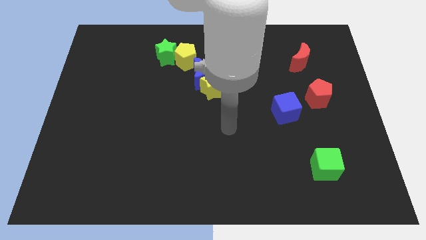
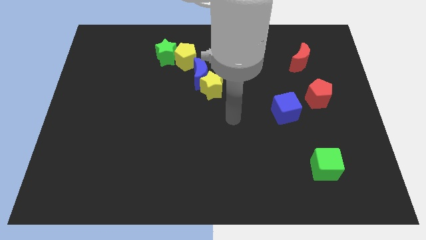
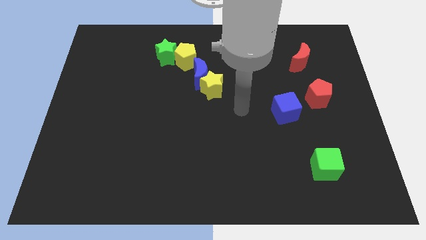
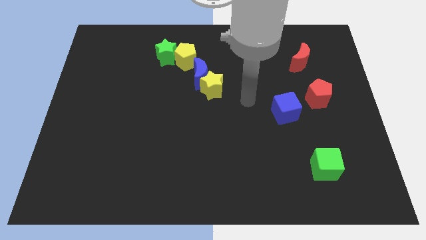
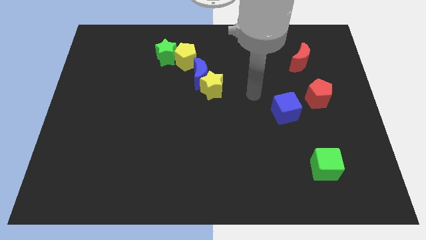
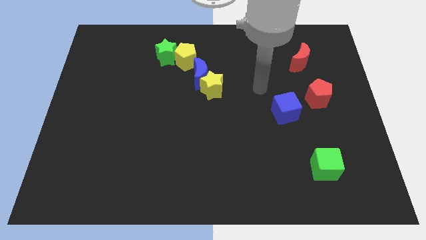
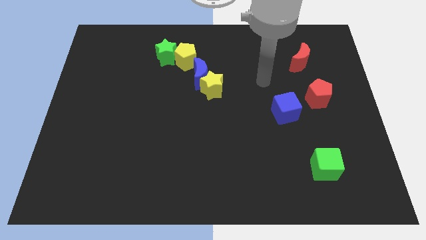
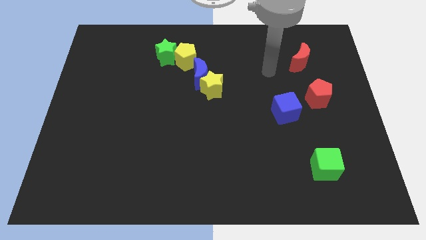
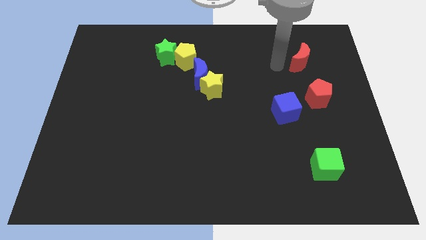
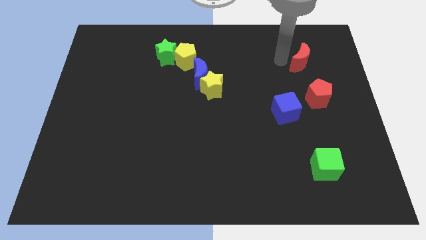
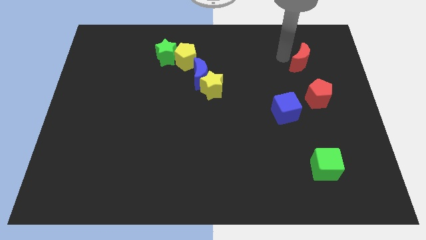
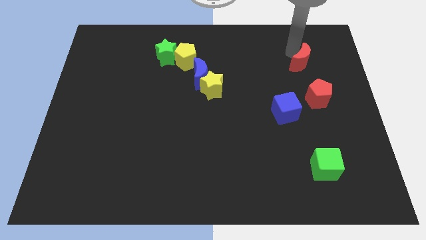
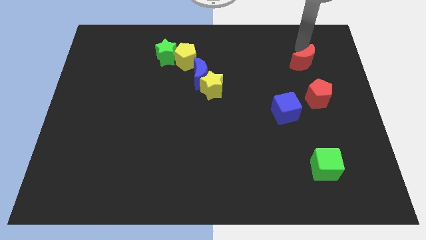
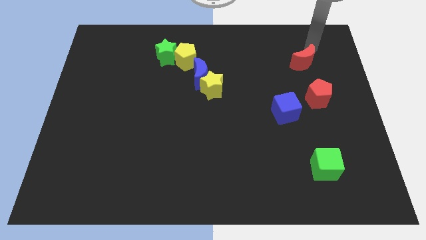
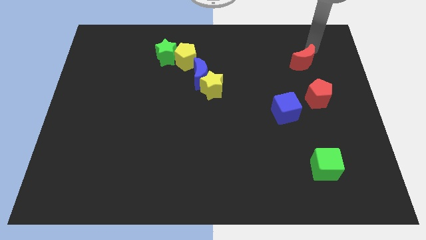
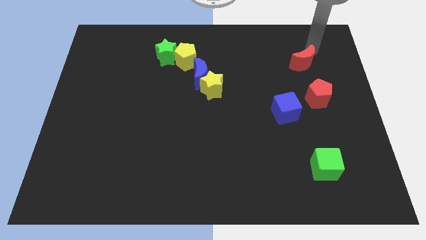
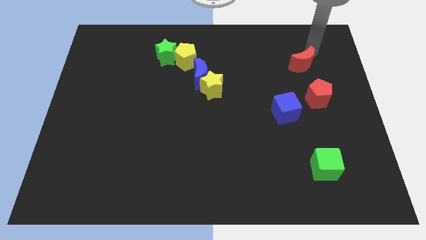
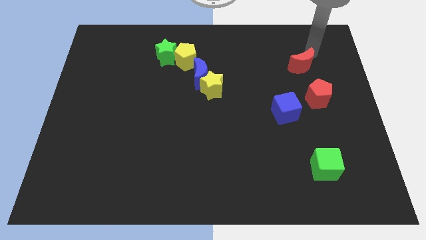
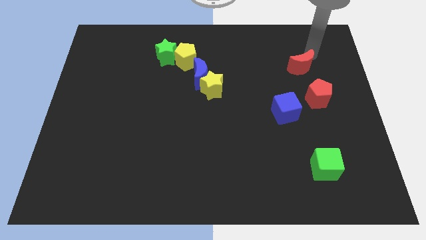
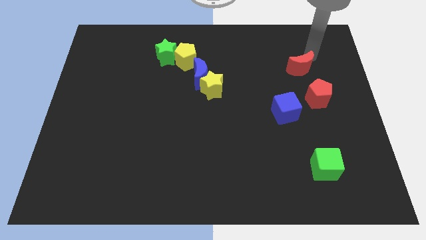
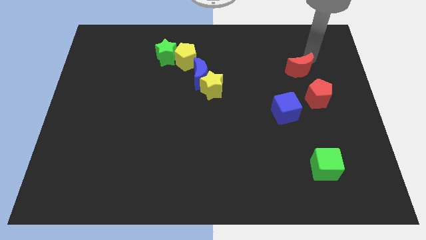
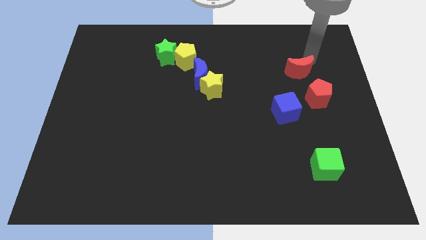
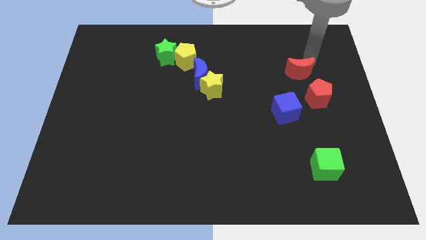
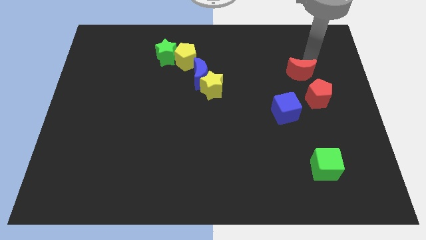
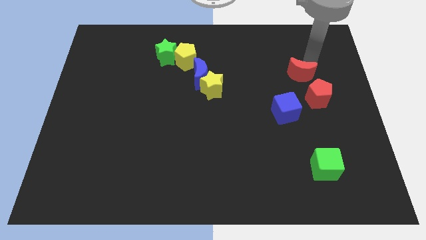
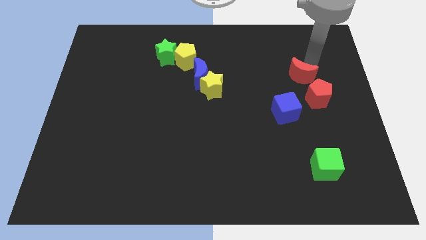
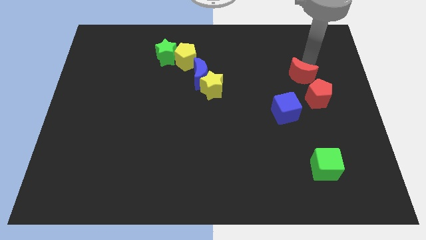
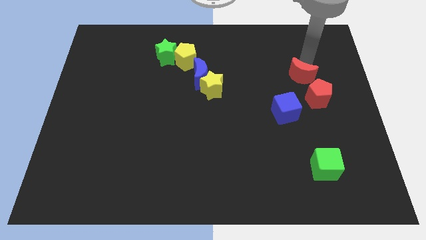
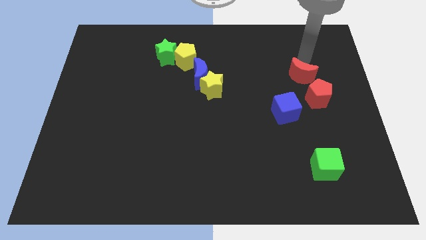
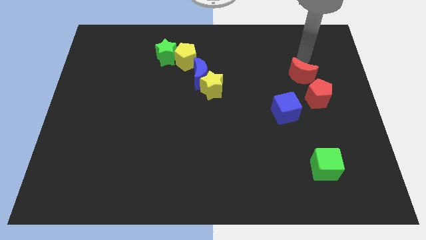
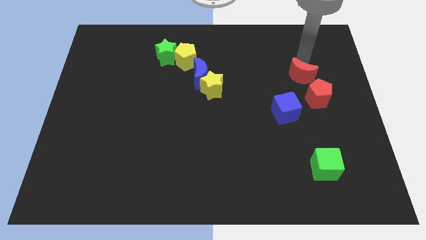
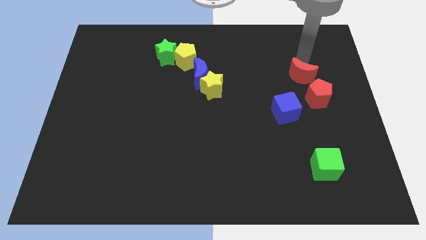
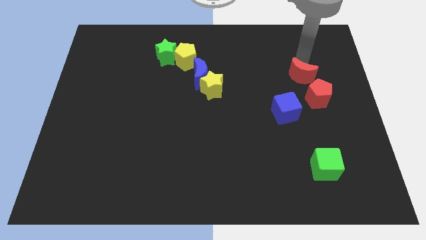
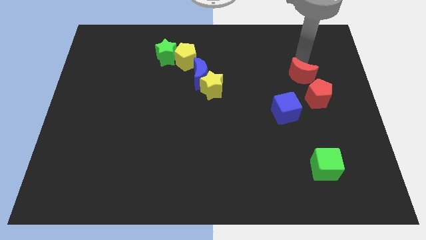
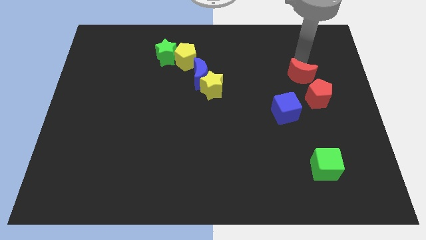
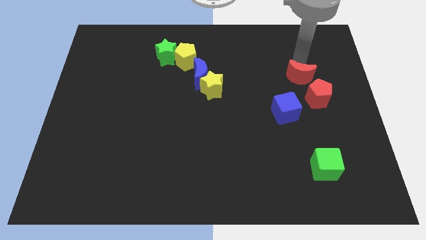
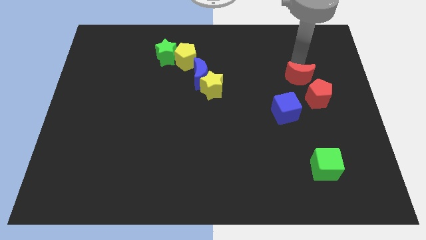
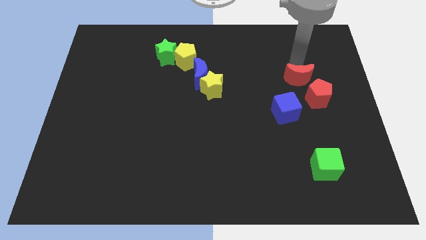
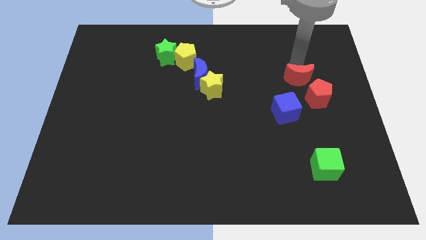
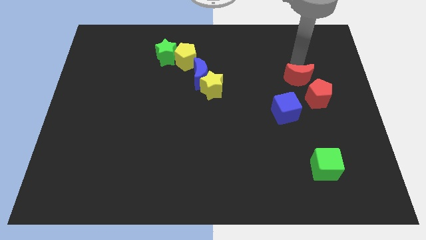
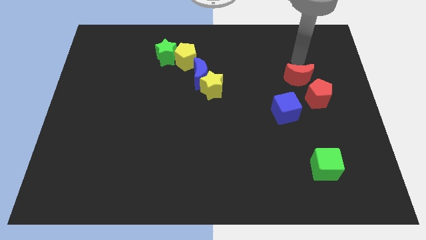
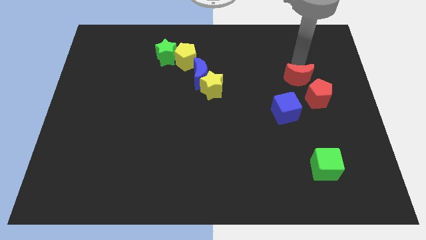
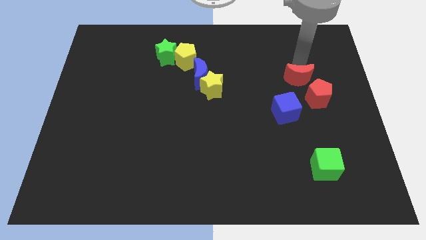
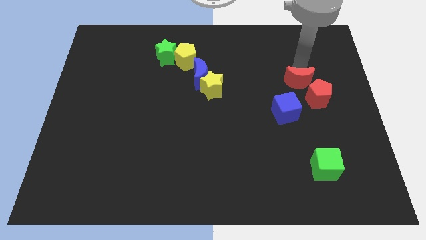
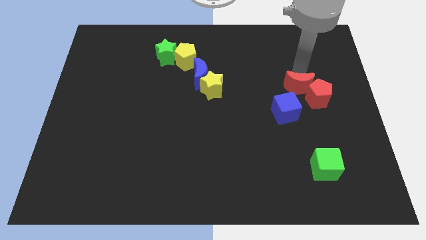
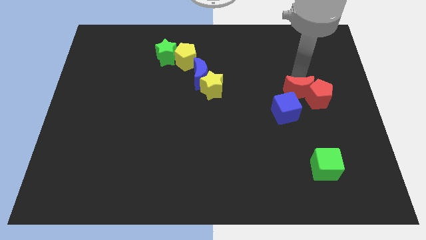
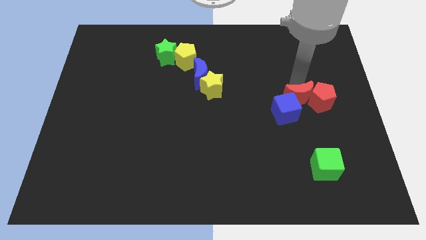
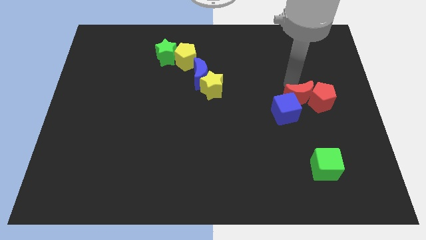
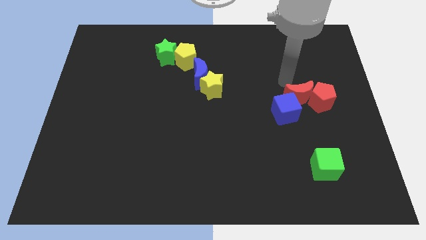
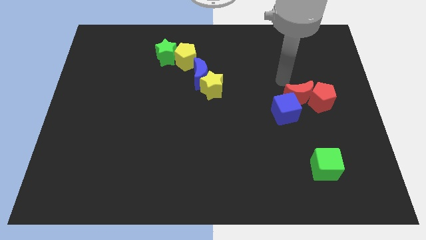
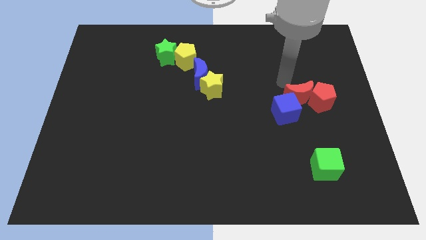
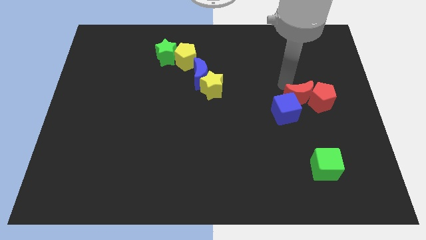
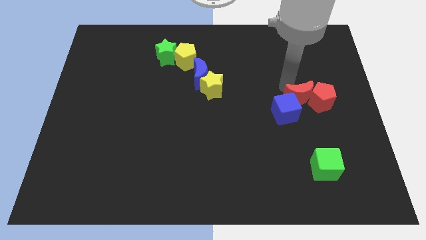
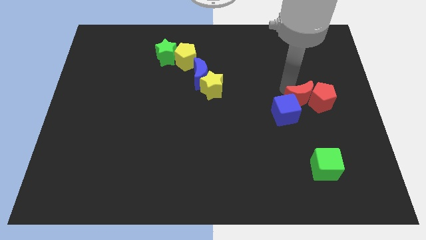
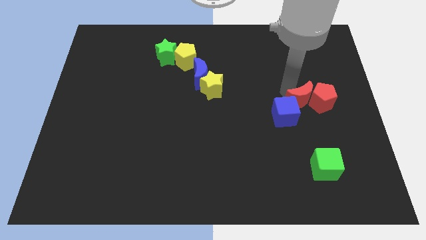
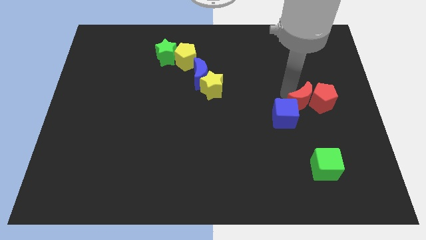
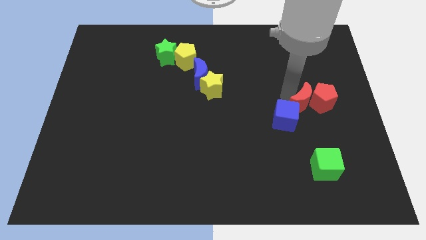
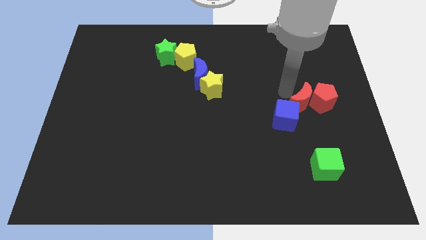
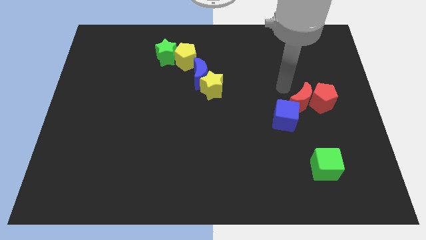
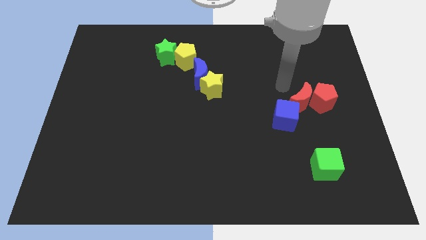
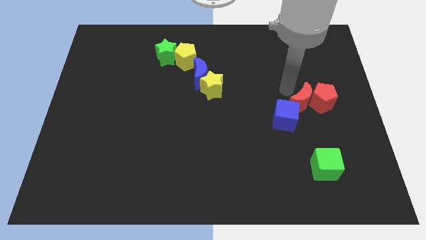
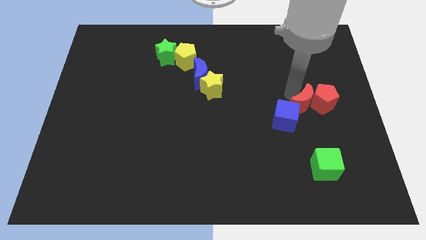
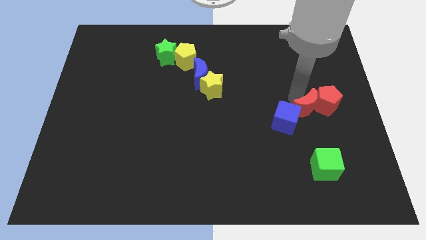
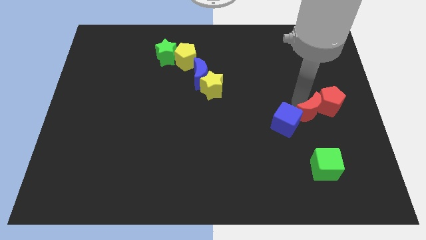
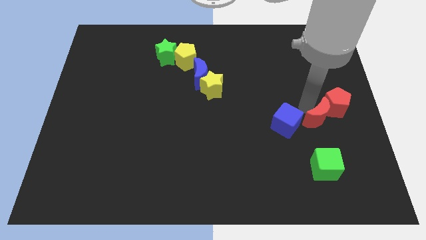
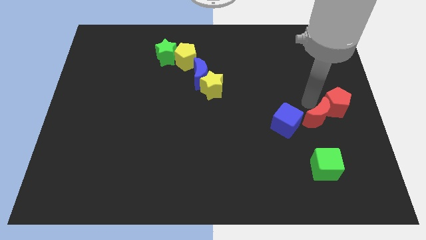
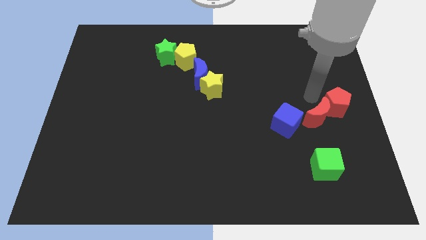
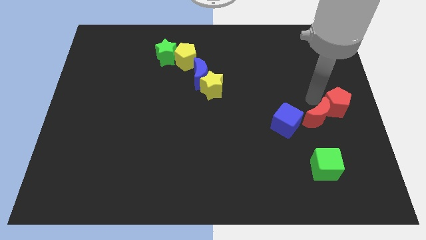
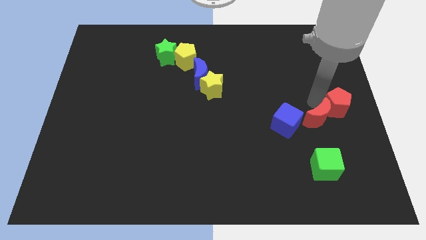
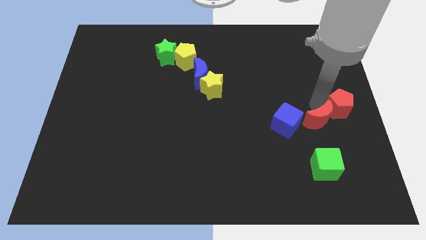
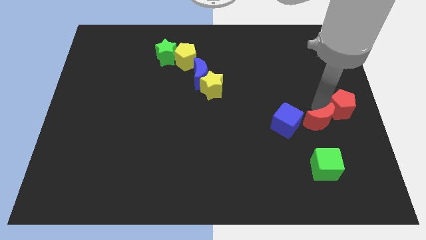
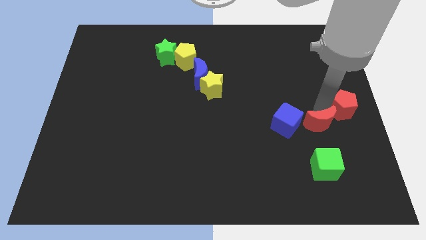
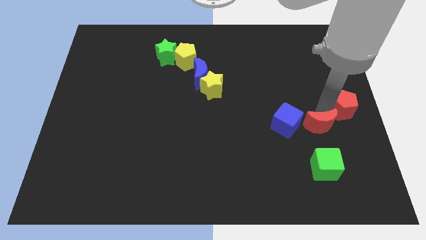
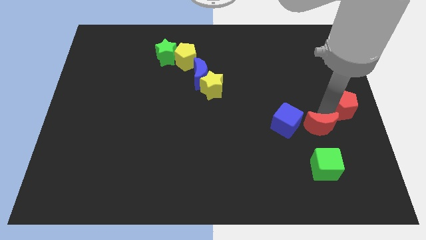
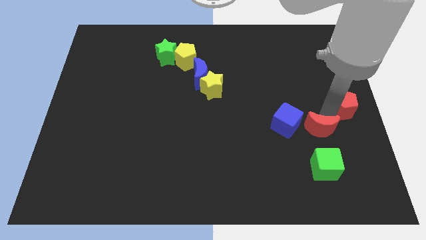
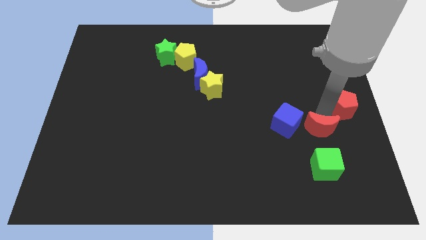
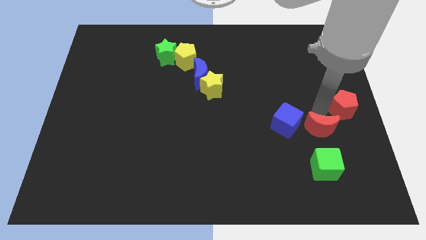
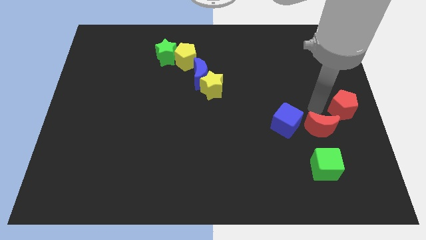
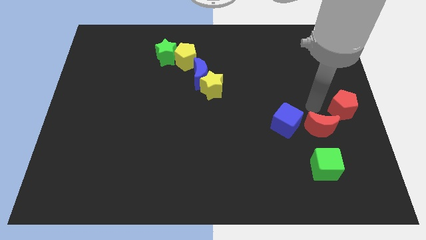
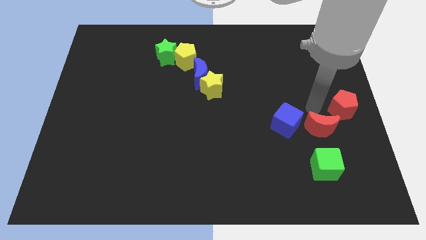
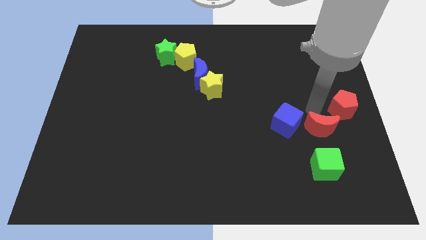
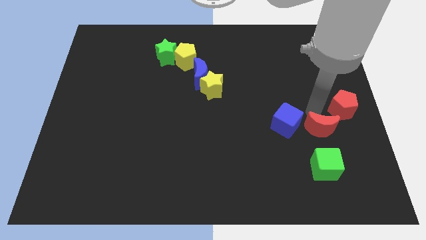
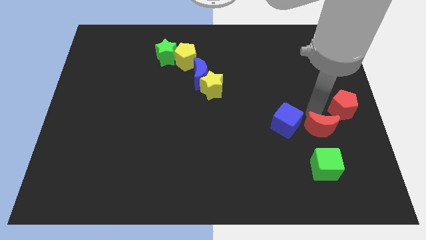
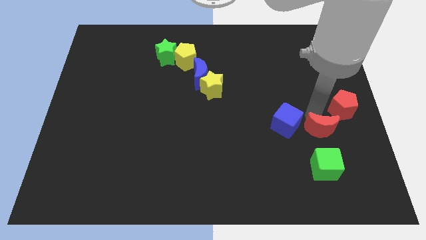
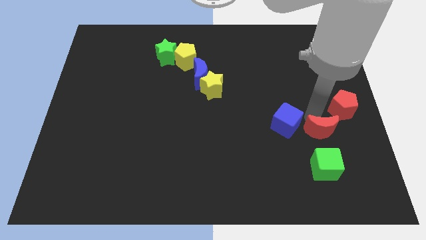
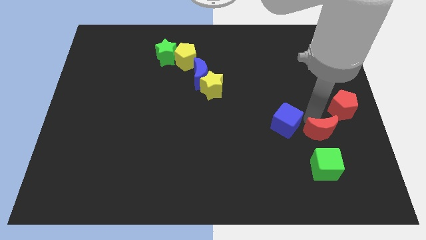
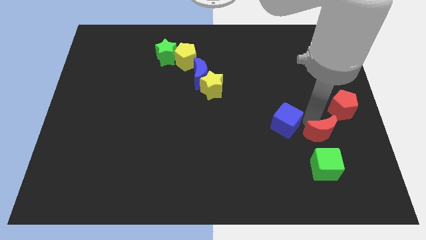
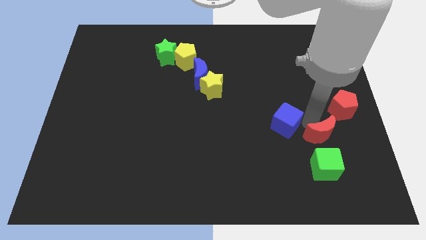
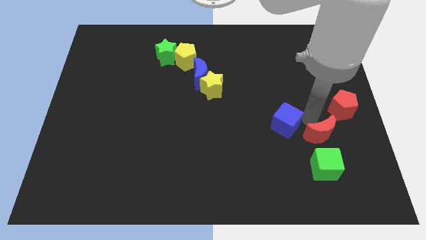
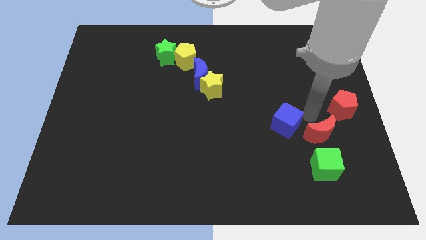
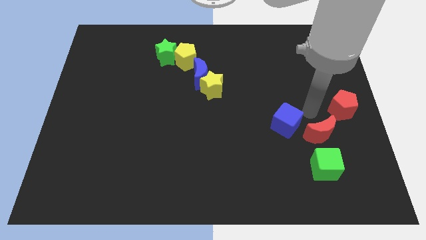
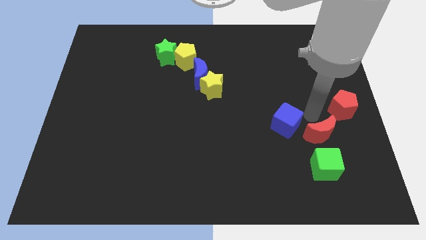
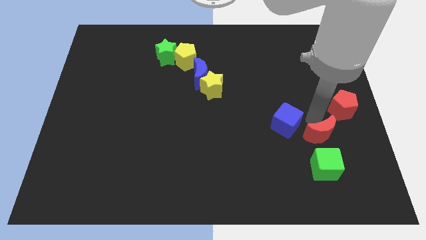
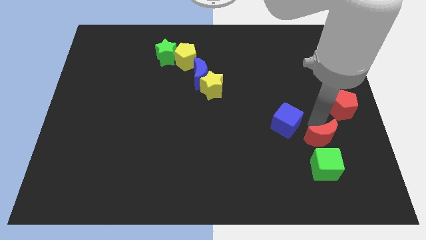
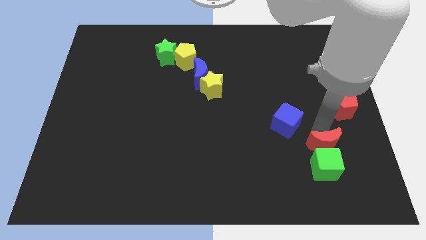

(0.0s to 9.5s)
push the red moon to the green cube
